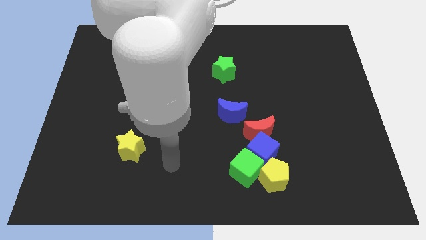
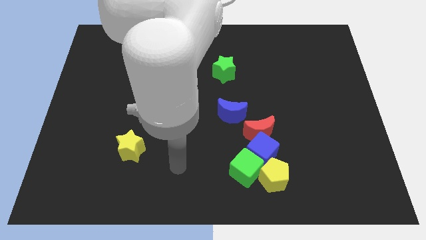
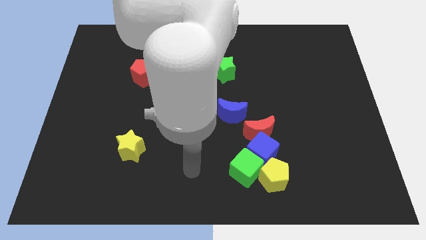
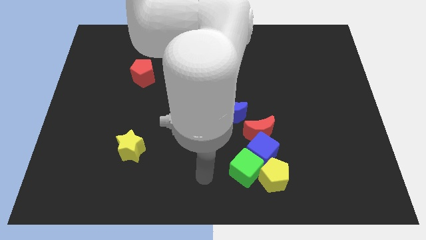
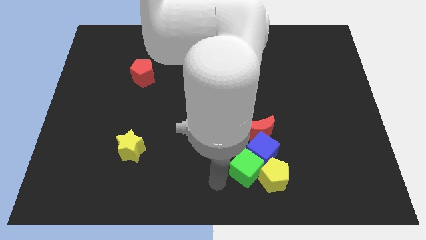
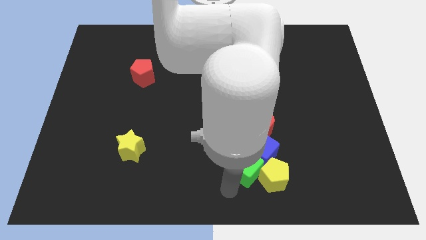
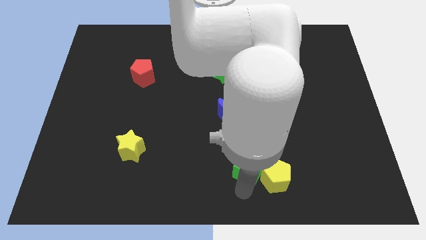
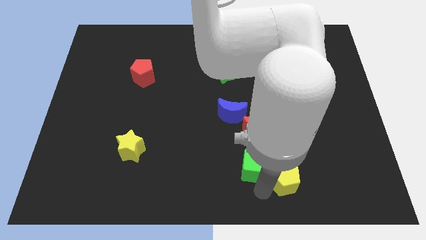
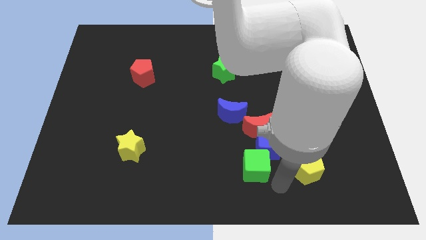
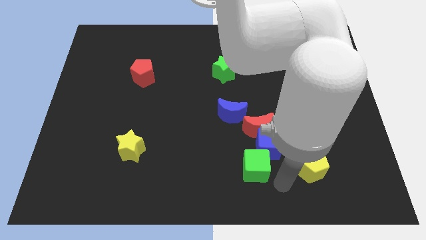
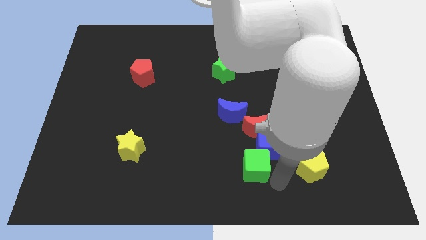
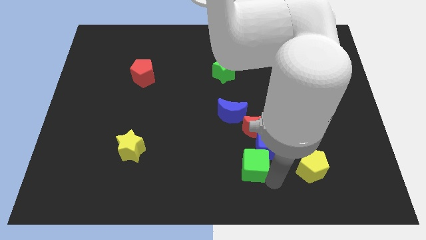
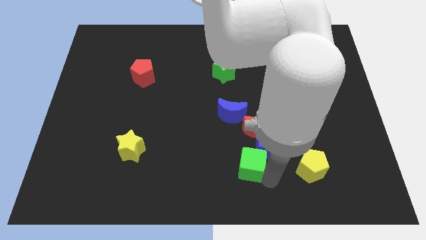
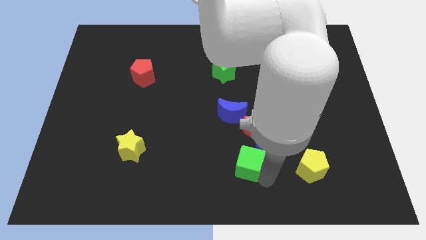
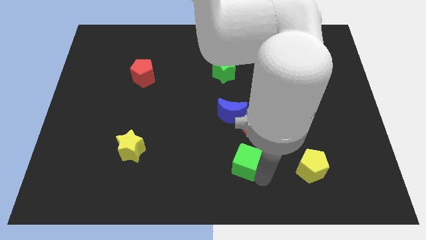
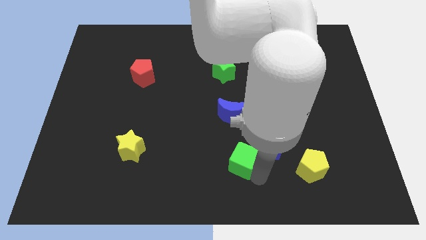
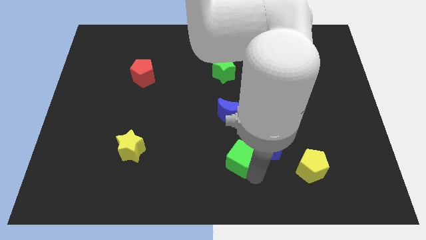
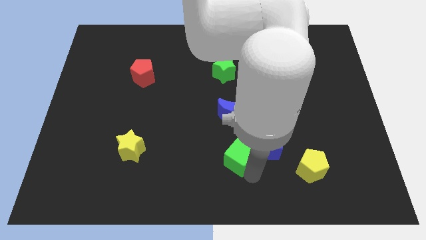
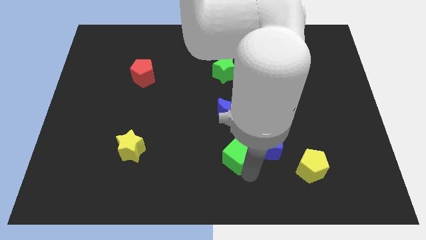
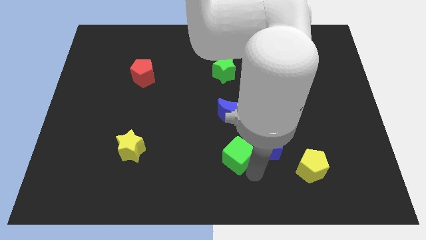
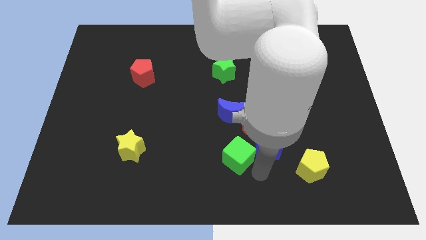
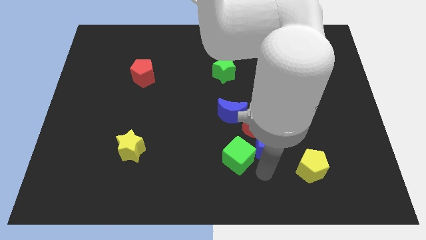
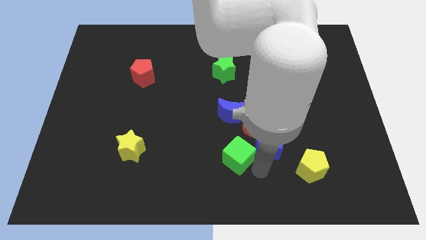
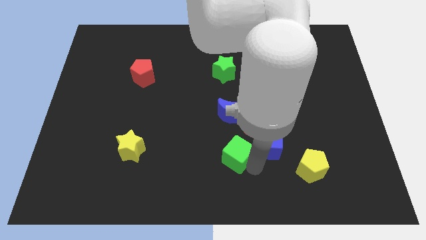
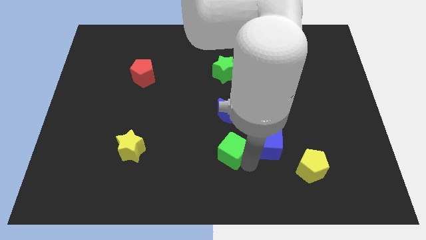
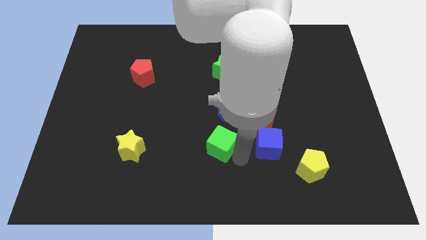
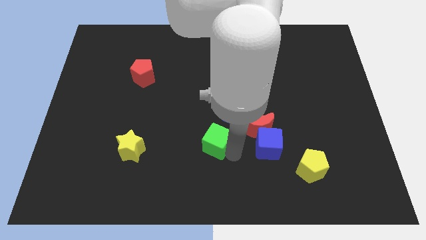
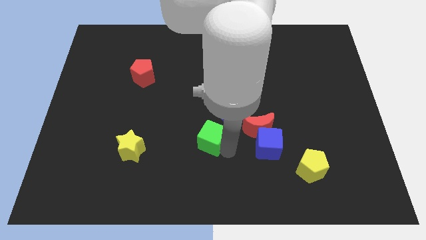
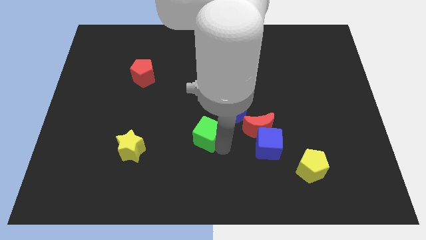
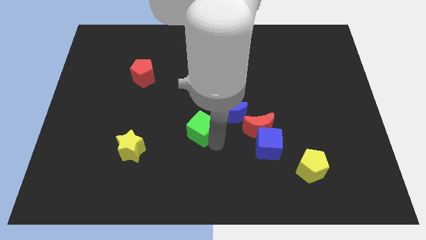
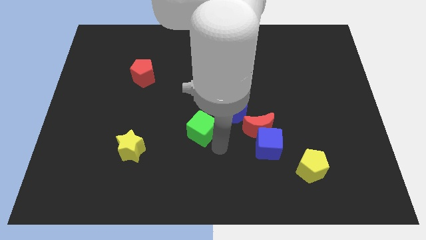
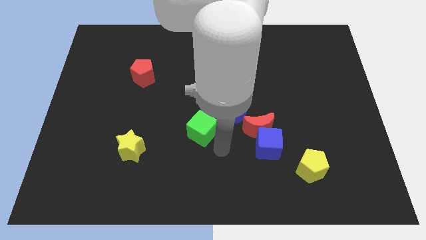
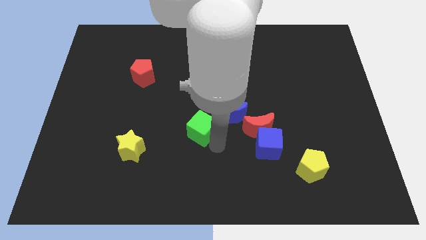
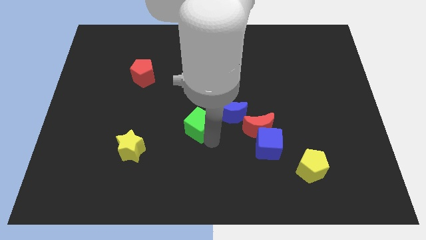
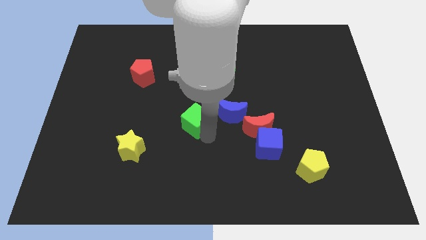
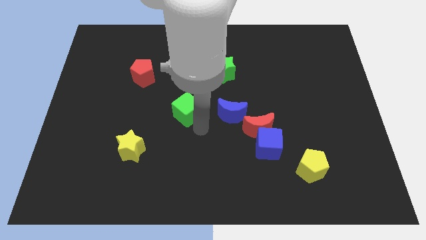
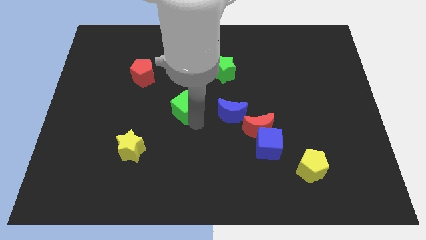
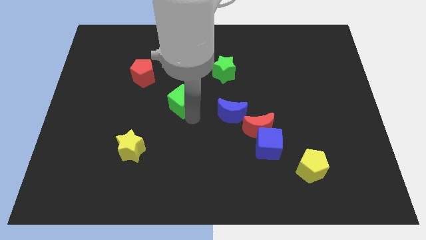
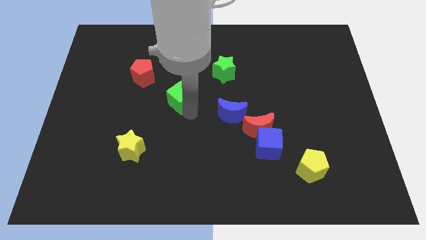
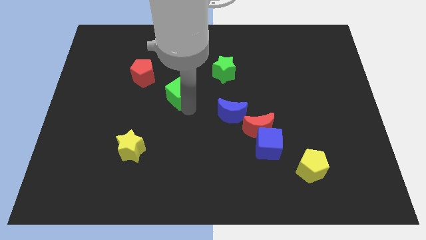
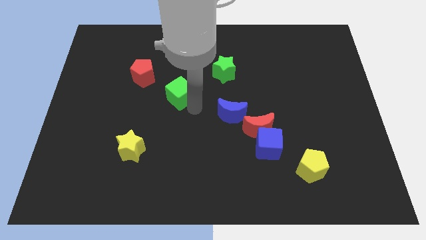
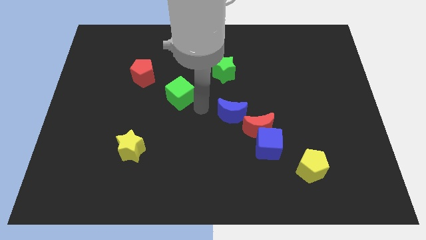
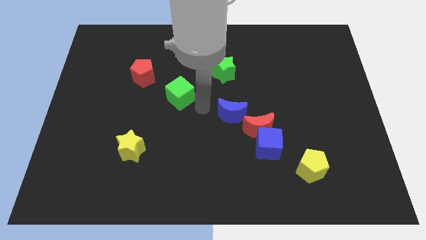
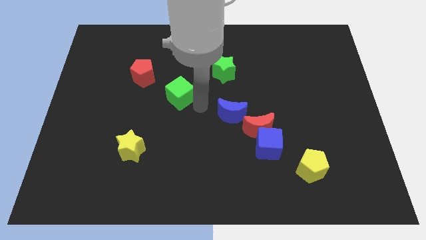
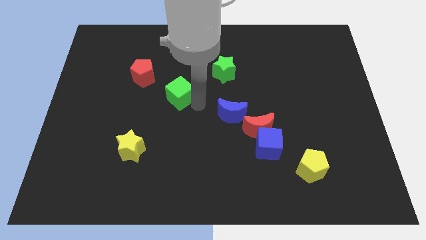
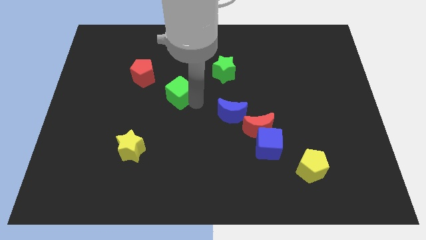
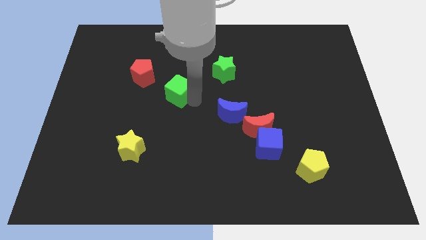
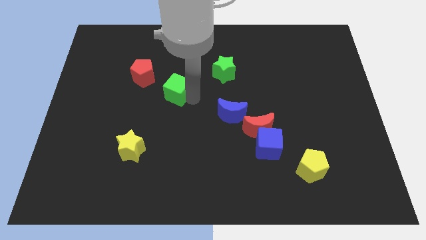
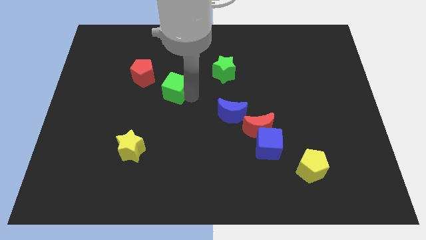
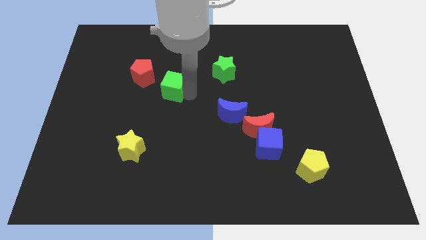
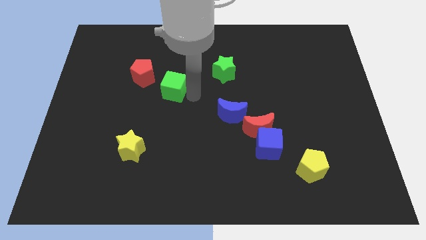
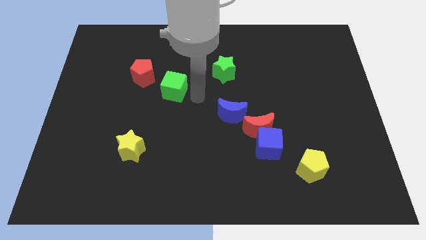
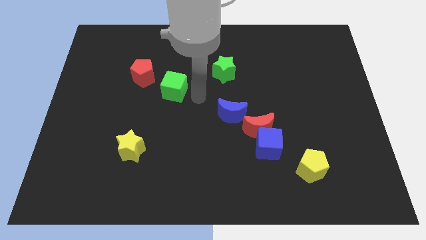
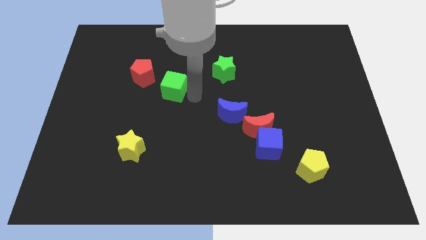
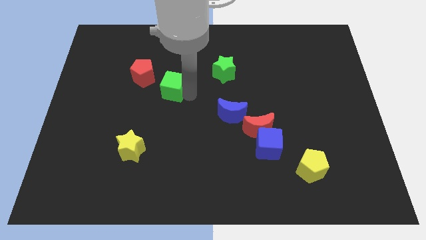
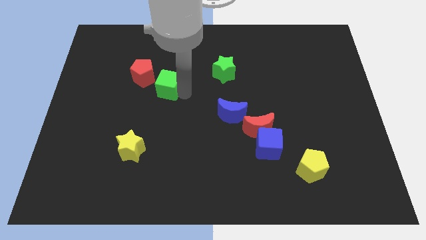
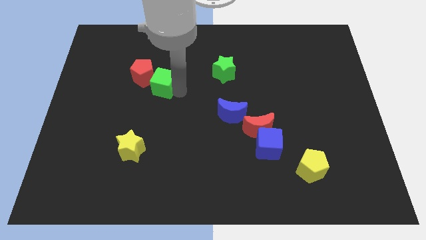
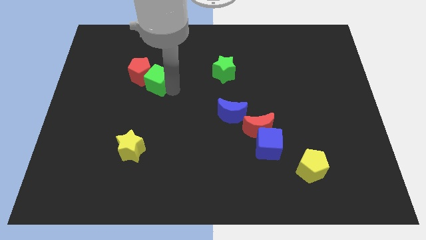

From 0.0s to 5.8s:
push the green cube towards the red pentagon

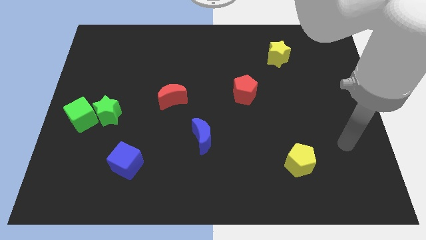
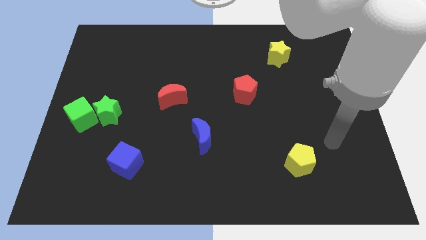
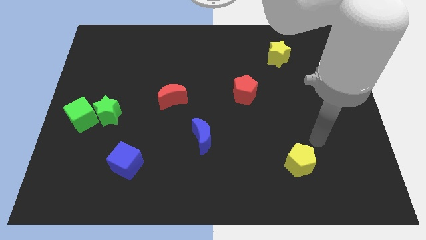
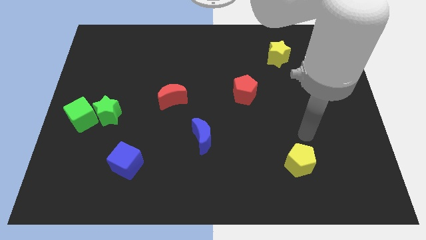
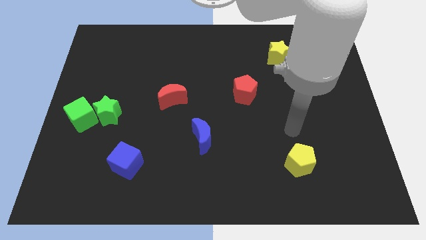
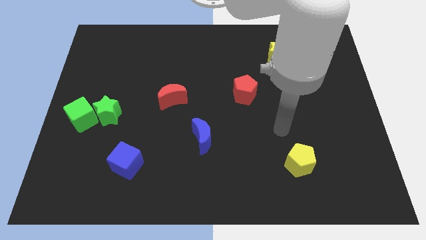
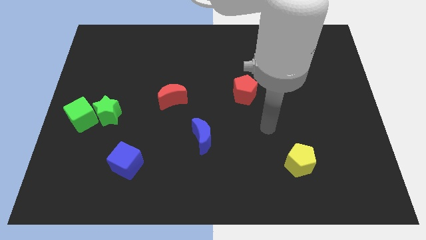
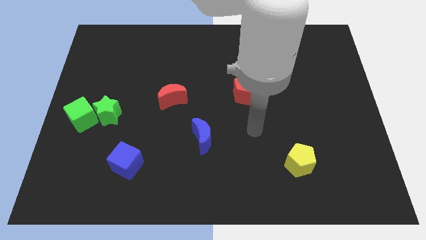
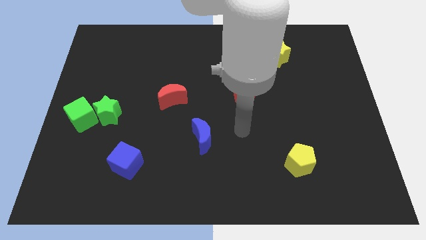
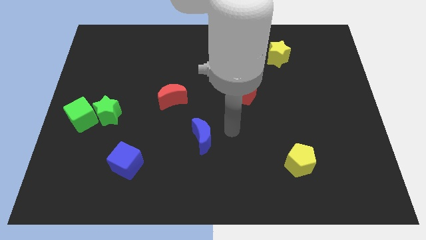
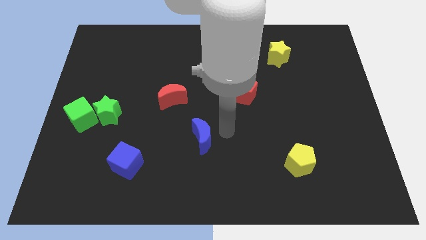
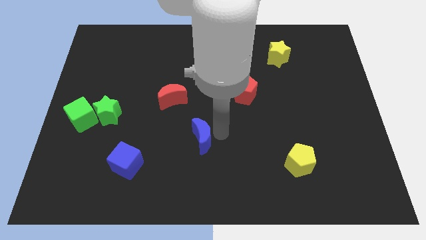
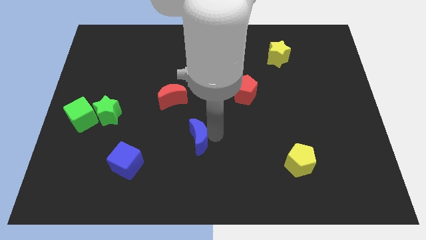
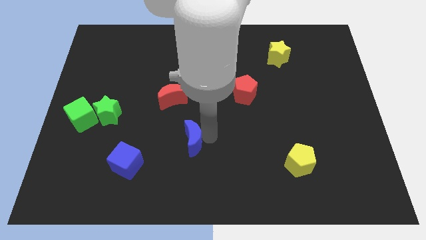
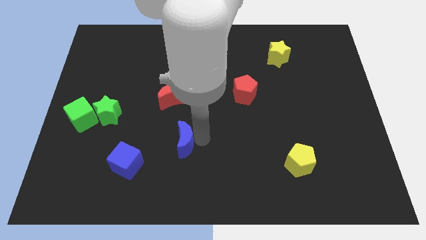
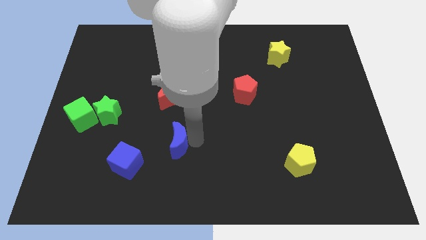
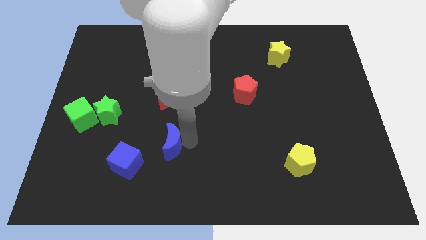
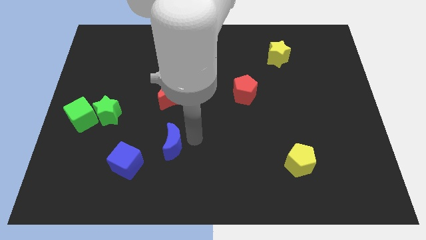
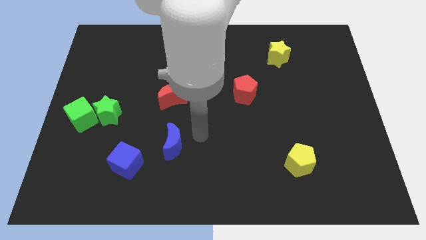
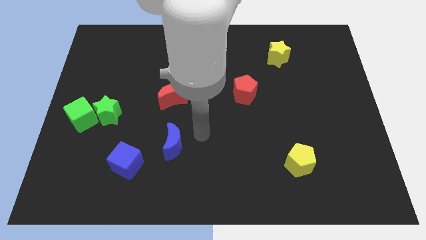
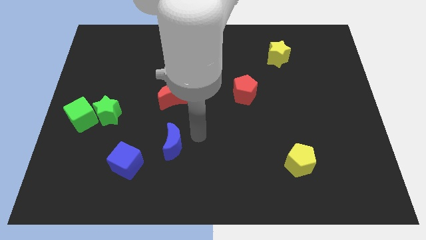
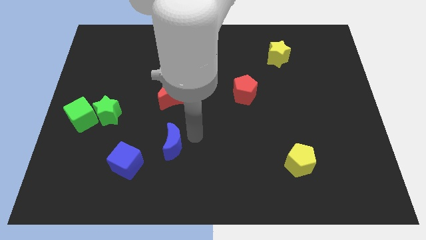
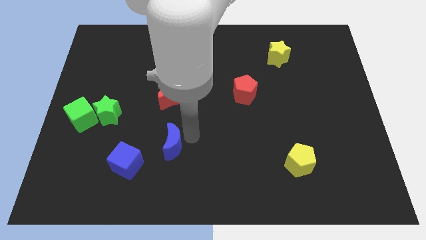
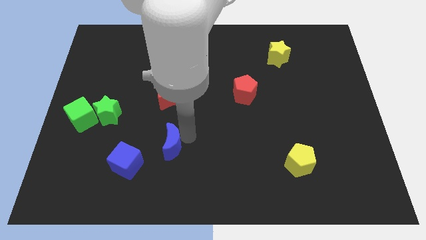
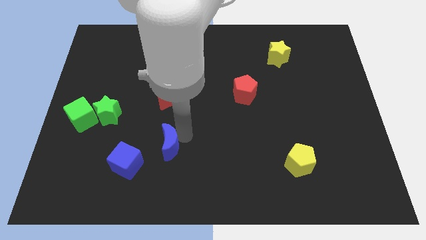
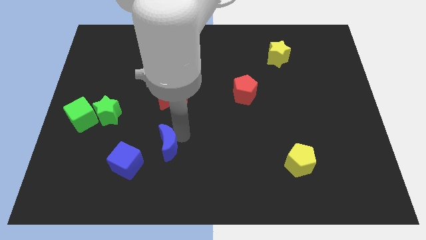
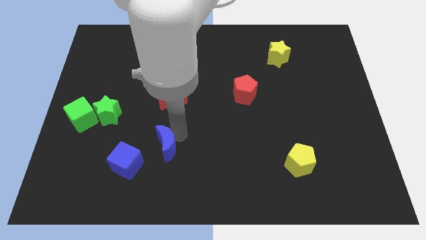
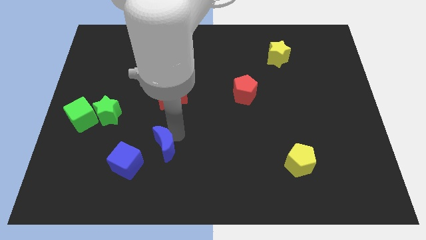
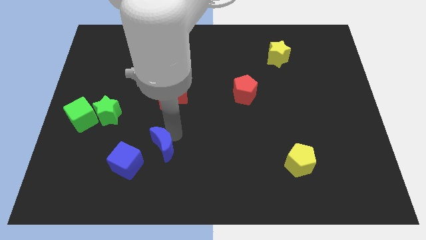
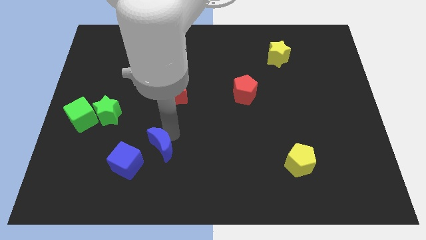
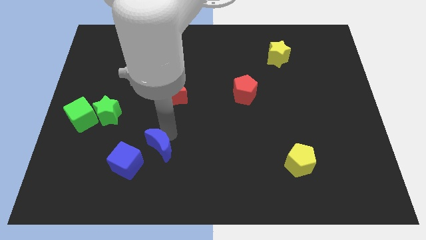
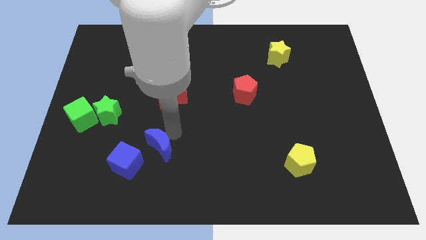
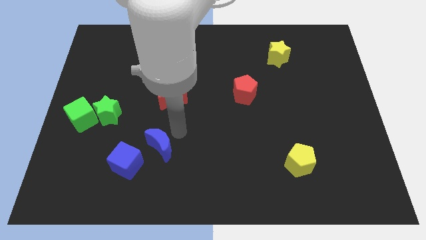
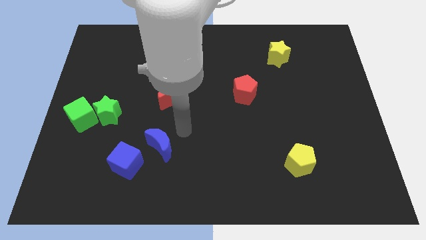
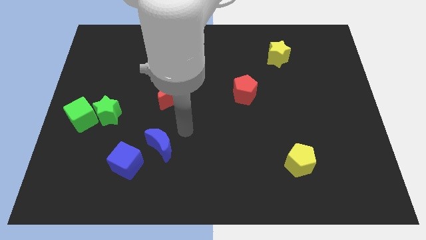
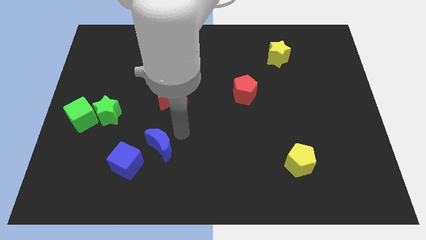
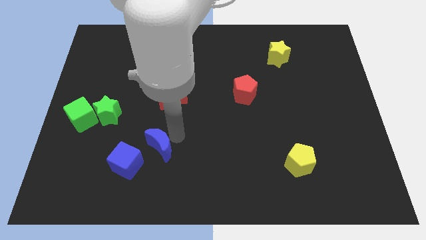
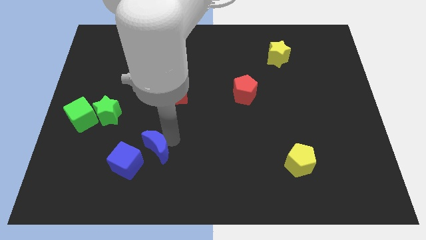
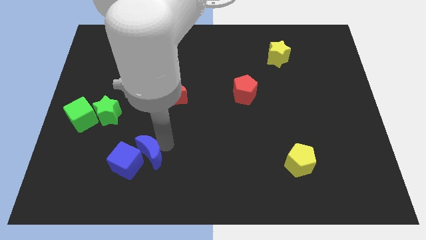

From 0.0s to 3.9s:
slide the blue moon next to the blue cube
